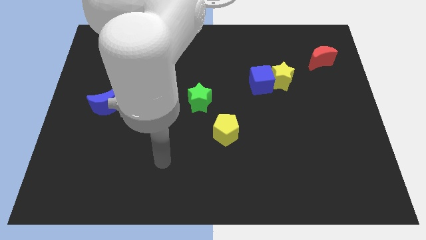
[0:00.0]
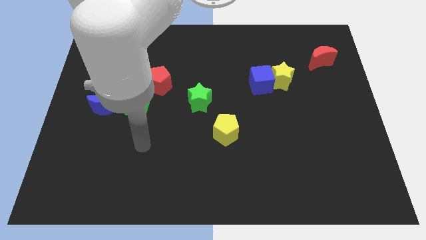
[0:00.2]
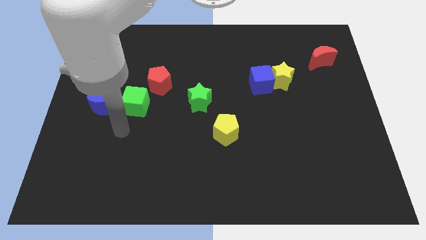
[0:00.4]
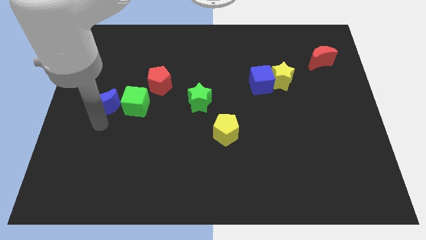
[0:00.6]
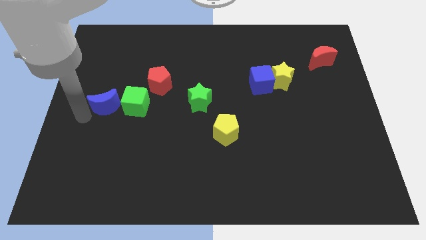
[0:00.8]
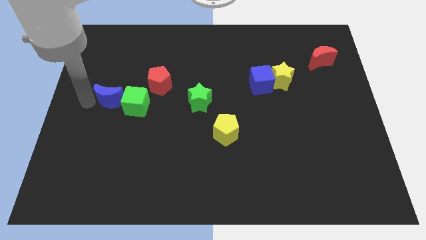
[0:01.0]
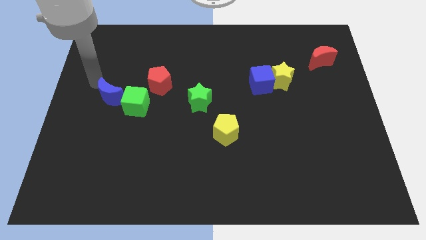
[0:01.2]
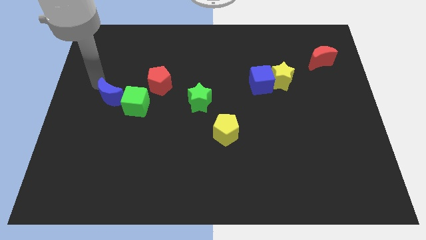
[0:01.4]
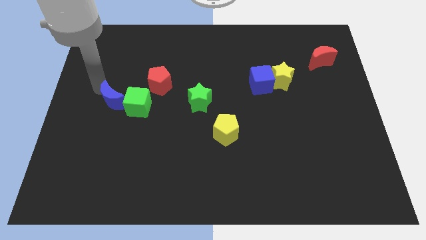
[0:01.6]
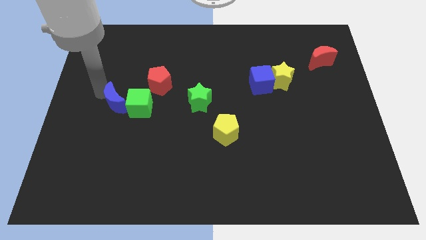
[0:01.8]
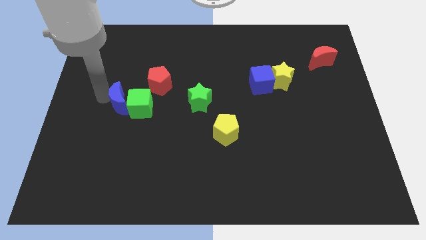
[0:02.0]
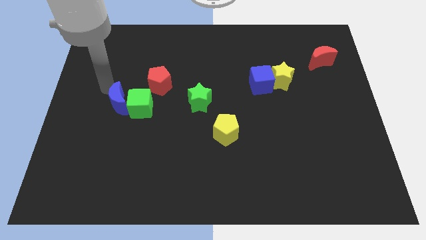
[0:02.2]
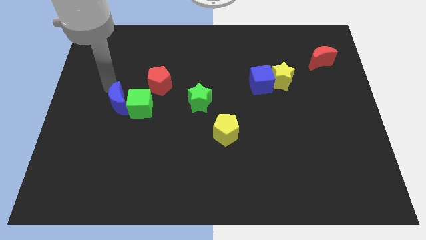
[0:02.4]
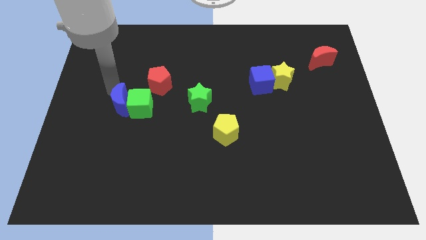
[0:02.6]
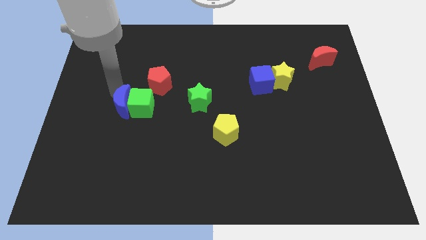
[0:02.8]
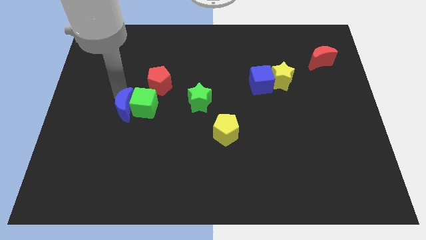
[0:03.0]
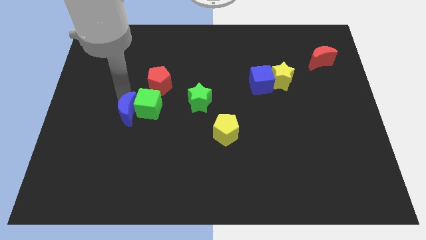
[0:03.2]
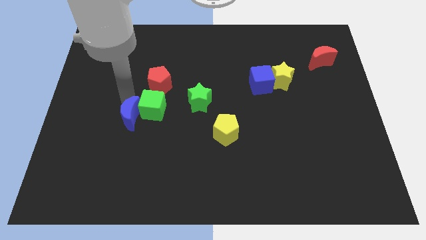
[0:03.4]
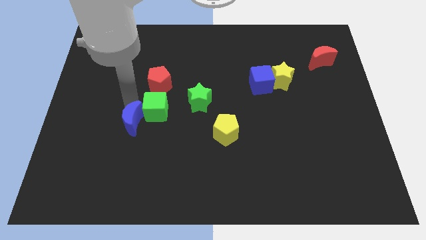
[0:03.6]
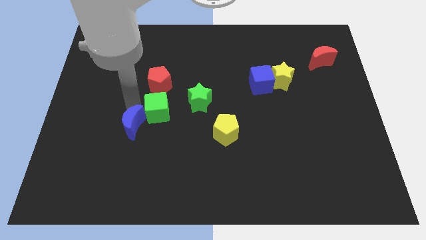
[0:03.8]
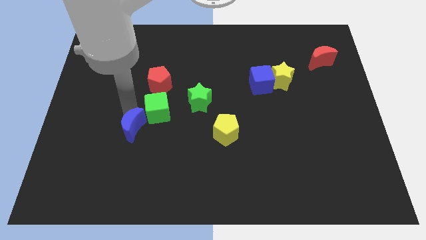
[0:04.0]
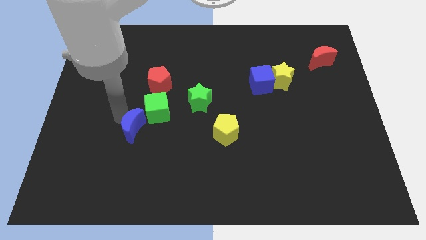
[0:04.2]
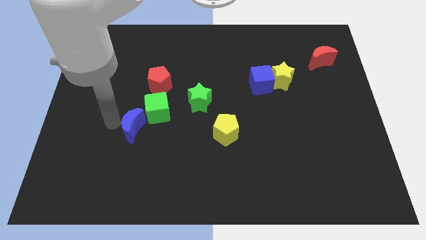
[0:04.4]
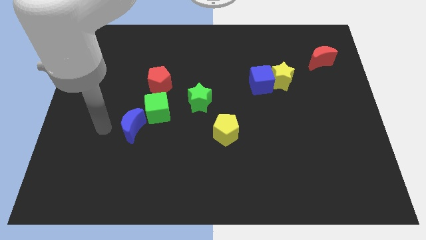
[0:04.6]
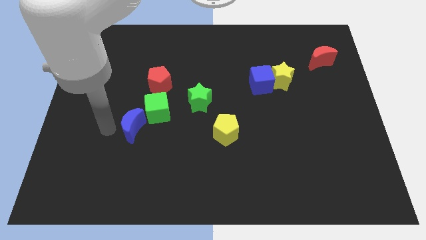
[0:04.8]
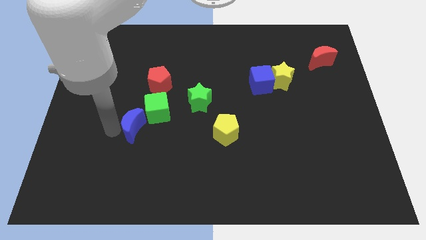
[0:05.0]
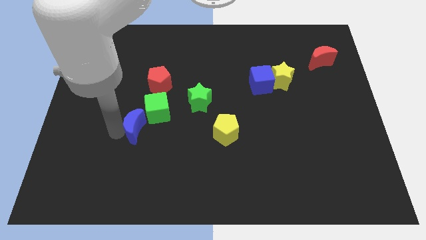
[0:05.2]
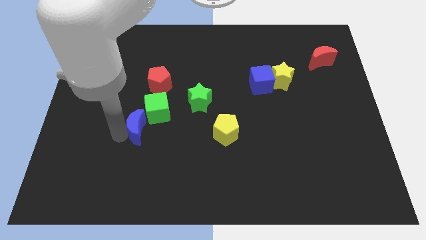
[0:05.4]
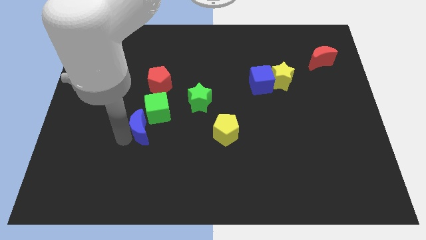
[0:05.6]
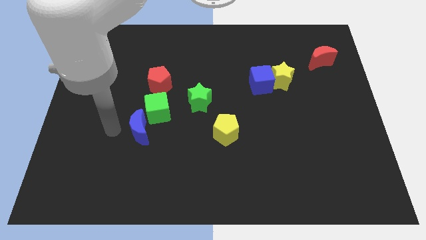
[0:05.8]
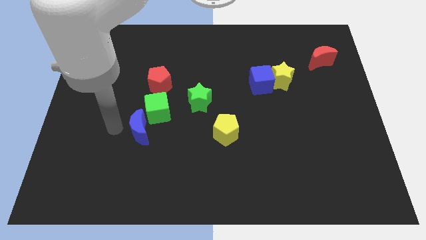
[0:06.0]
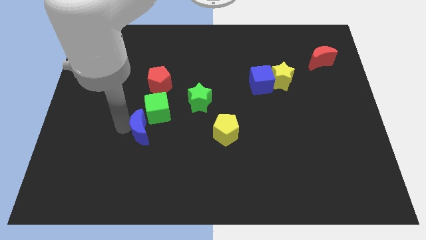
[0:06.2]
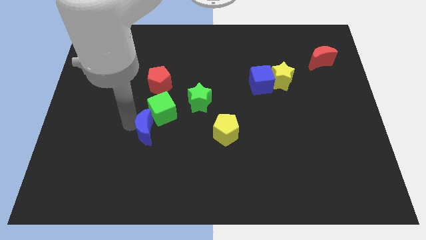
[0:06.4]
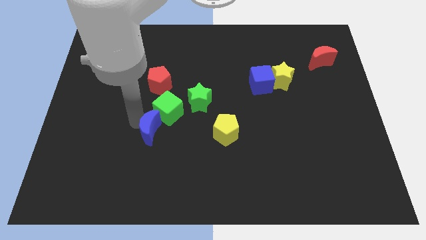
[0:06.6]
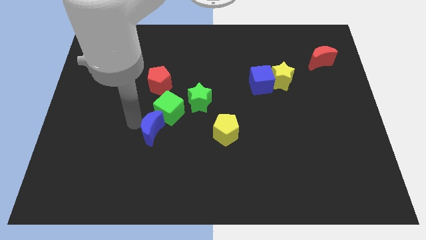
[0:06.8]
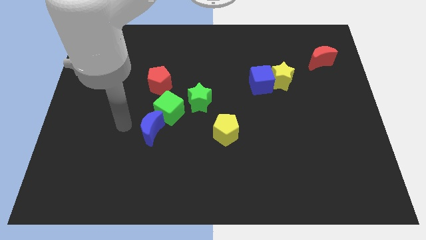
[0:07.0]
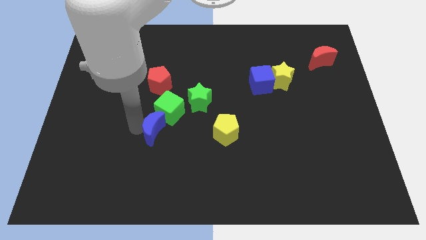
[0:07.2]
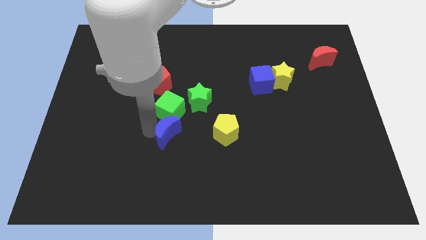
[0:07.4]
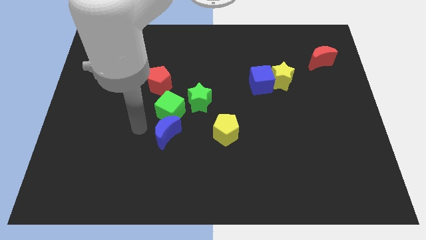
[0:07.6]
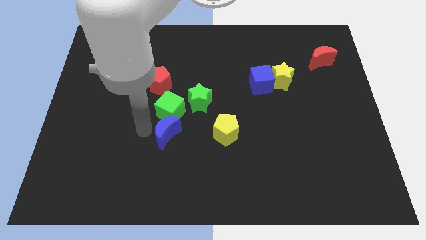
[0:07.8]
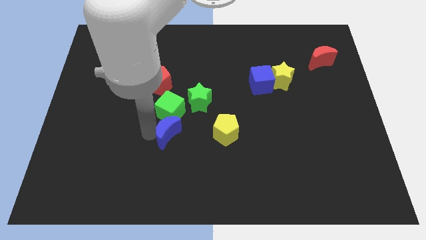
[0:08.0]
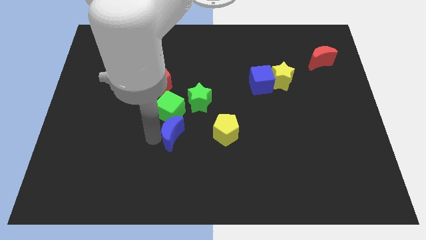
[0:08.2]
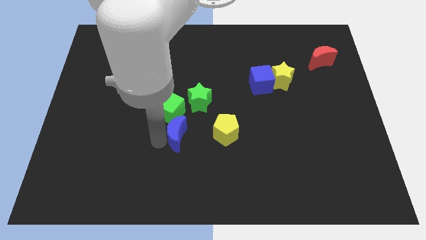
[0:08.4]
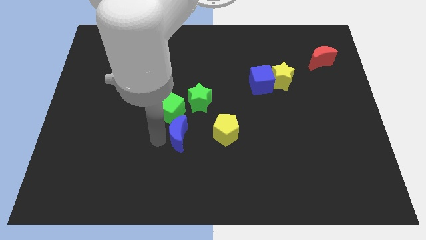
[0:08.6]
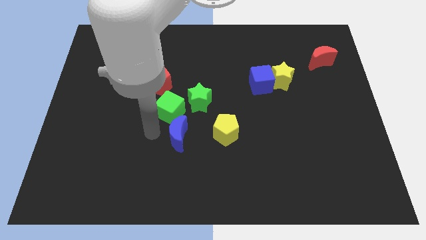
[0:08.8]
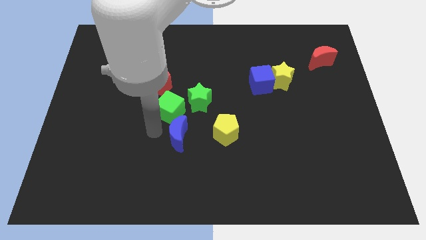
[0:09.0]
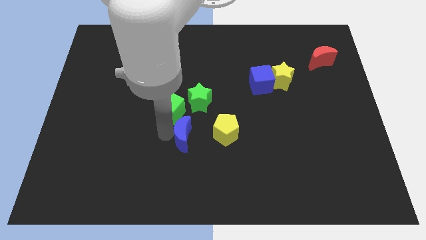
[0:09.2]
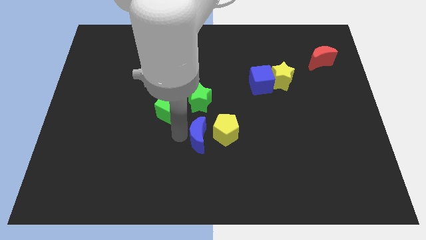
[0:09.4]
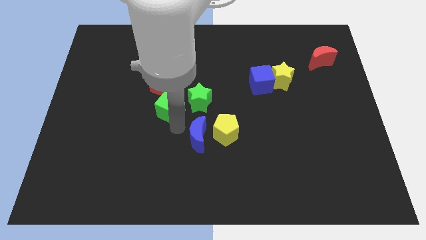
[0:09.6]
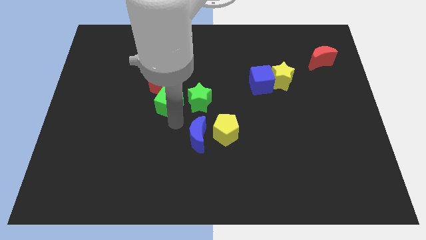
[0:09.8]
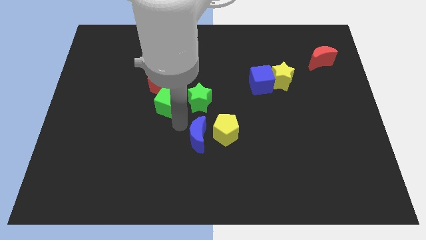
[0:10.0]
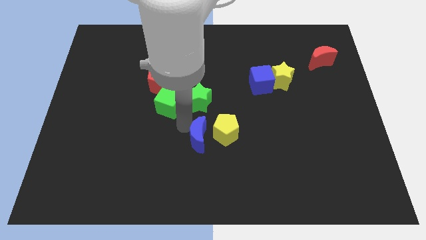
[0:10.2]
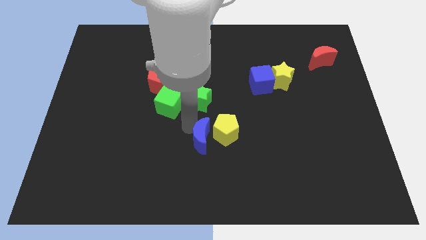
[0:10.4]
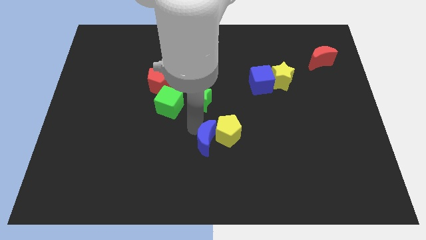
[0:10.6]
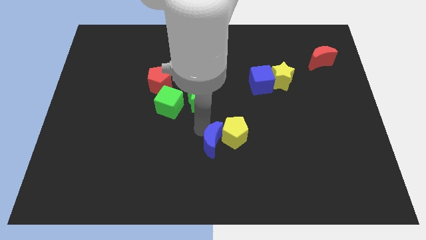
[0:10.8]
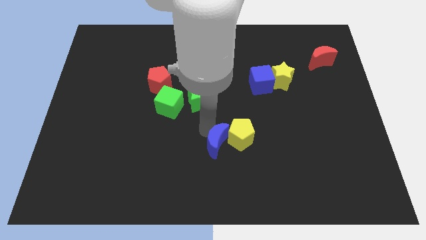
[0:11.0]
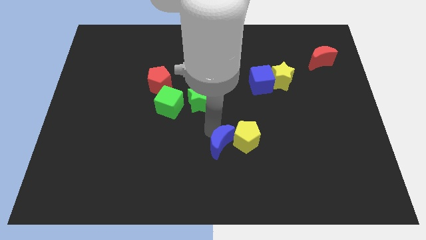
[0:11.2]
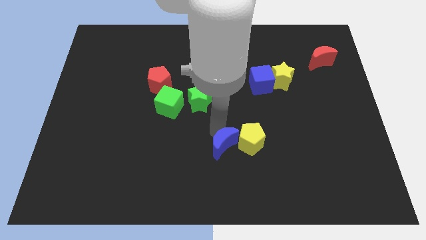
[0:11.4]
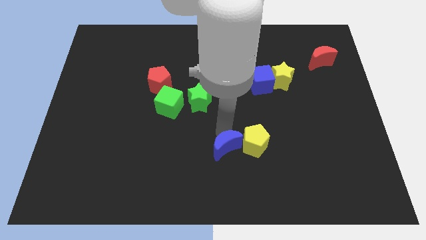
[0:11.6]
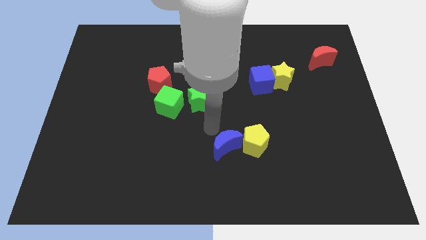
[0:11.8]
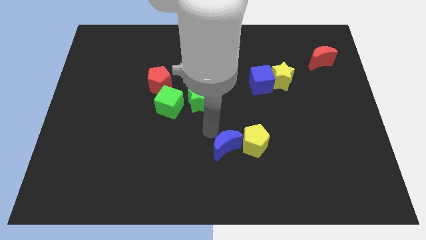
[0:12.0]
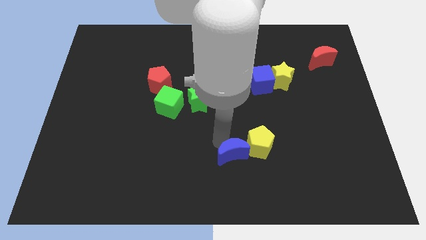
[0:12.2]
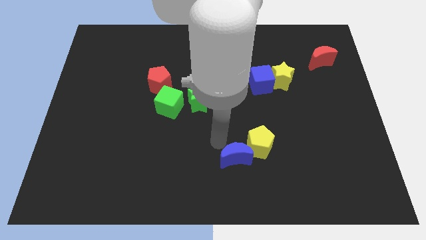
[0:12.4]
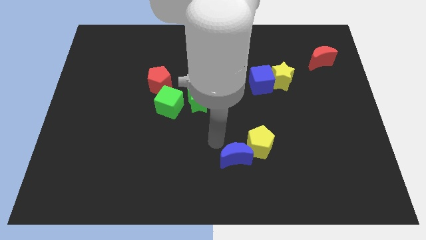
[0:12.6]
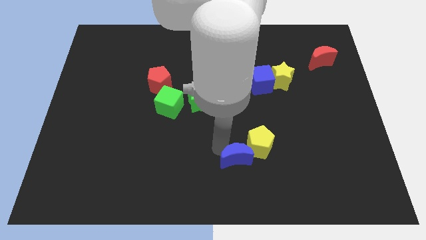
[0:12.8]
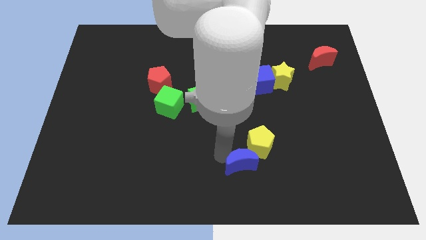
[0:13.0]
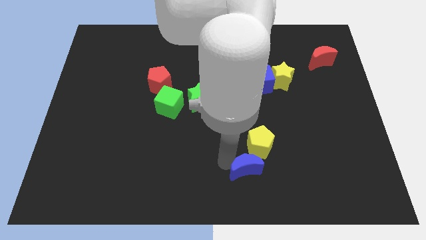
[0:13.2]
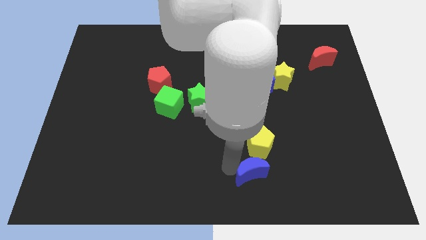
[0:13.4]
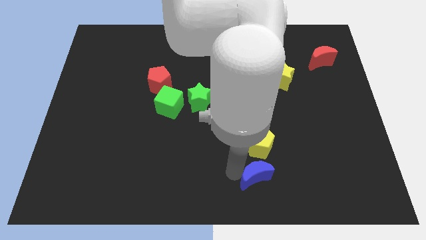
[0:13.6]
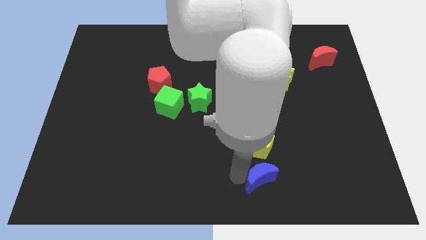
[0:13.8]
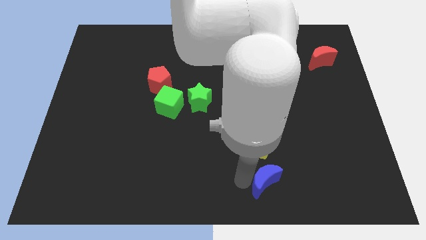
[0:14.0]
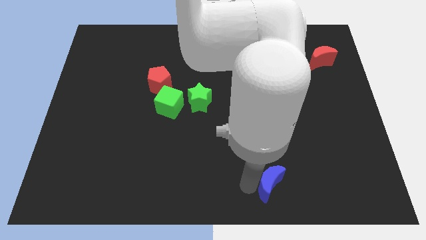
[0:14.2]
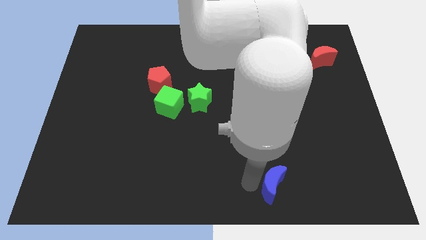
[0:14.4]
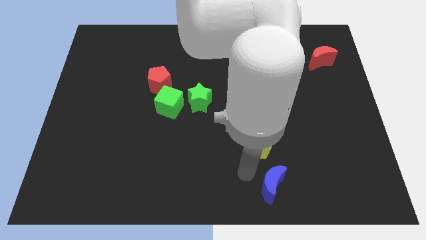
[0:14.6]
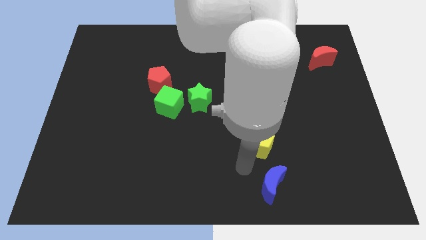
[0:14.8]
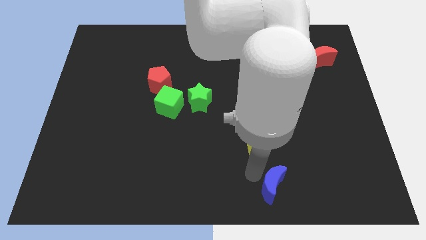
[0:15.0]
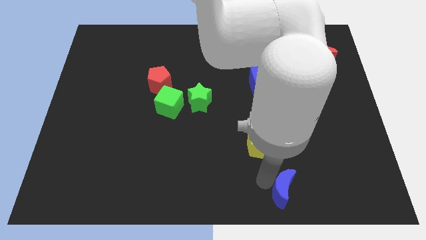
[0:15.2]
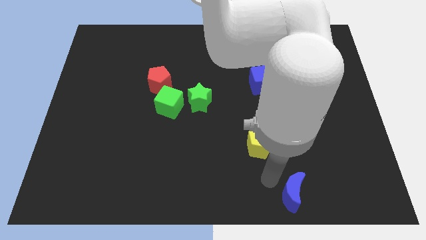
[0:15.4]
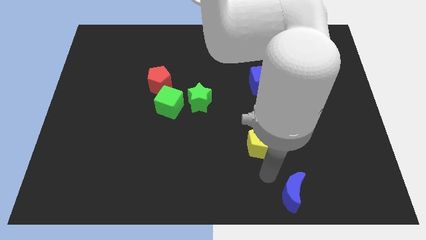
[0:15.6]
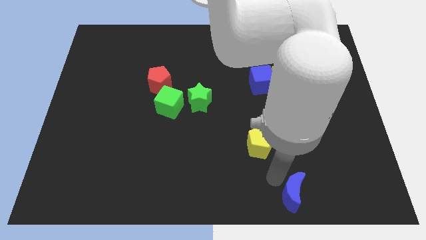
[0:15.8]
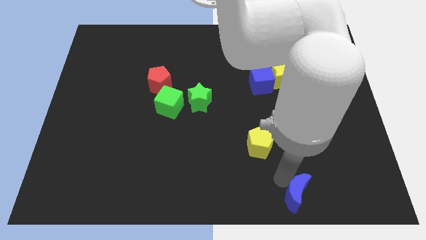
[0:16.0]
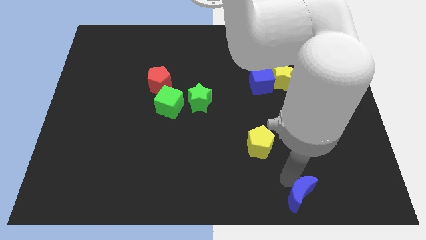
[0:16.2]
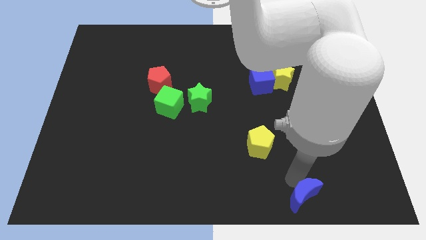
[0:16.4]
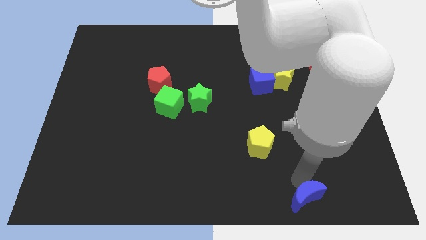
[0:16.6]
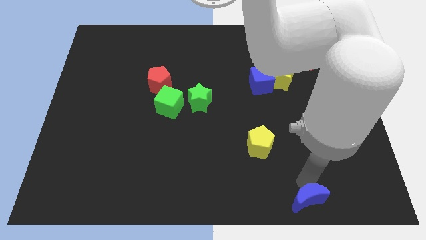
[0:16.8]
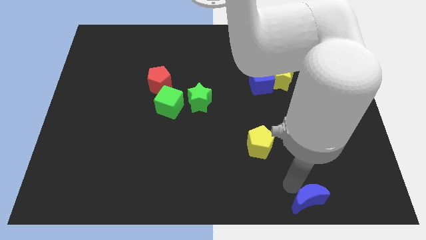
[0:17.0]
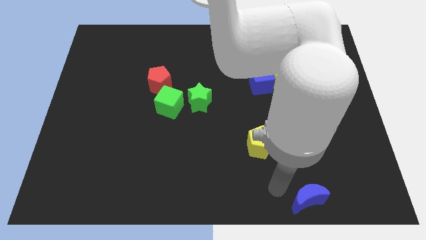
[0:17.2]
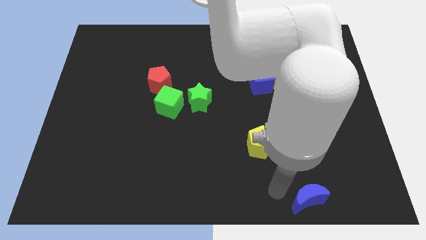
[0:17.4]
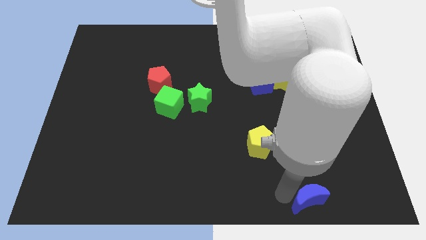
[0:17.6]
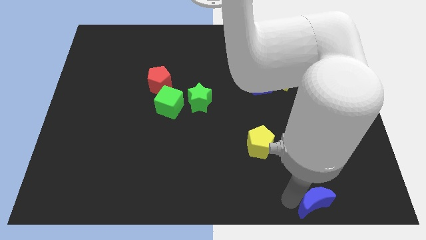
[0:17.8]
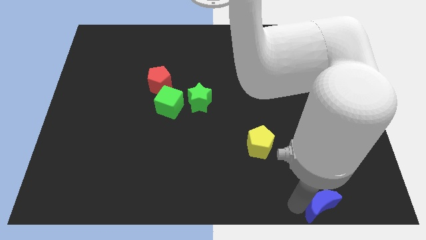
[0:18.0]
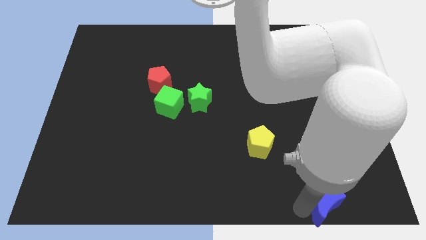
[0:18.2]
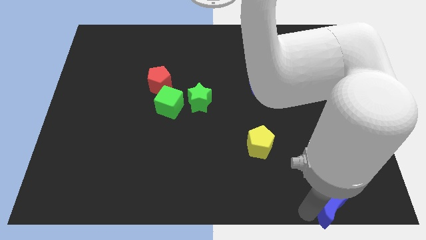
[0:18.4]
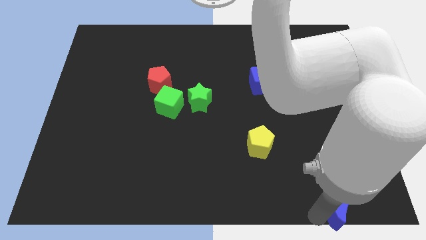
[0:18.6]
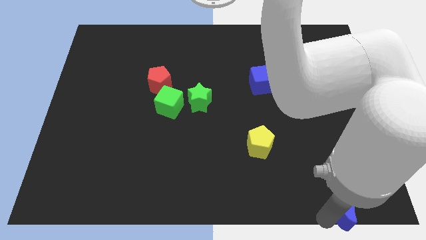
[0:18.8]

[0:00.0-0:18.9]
put the blue moon to the bottom right
